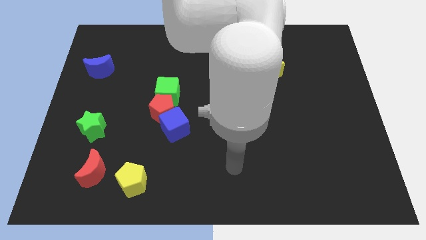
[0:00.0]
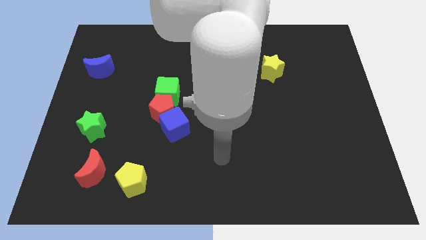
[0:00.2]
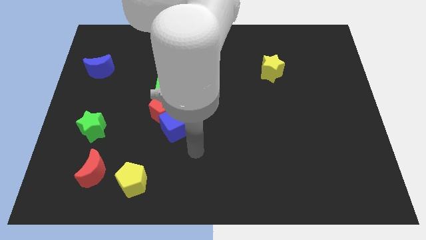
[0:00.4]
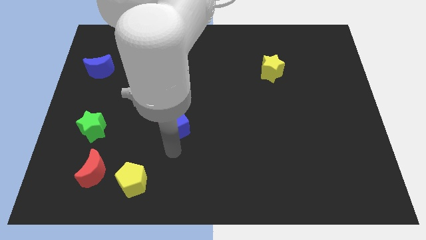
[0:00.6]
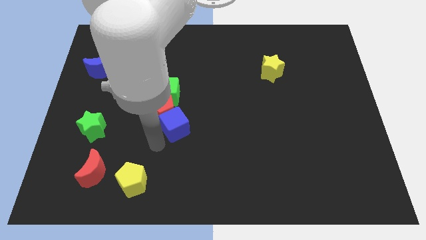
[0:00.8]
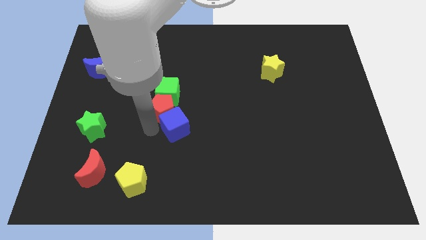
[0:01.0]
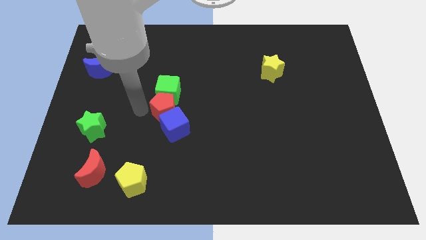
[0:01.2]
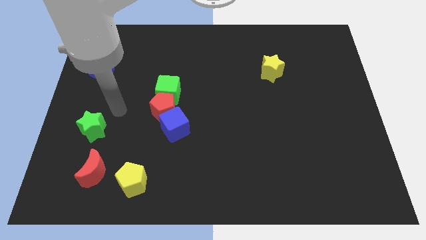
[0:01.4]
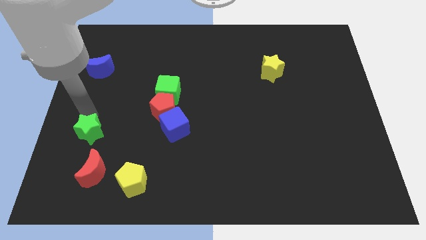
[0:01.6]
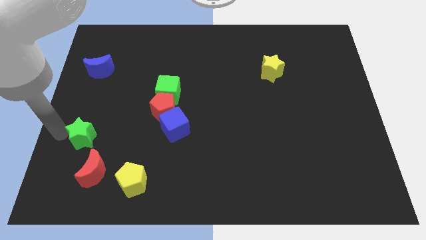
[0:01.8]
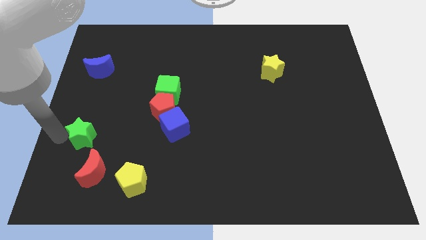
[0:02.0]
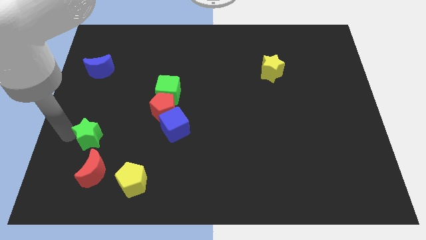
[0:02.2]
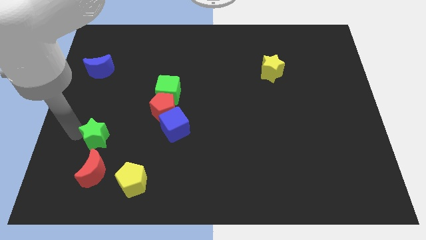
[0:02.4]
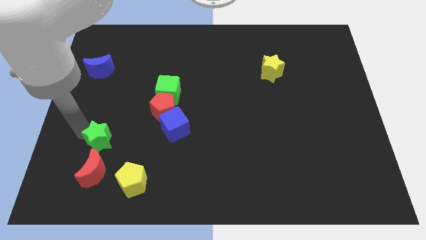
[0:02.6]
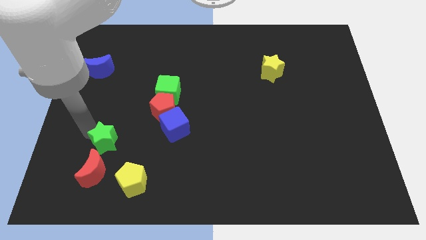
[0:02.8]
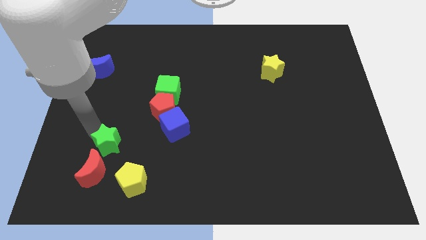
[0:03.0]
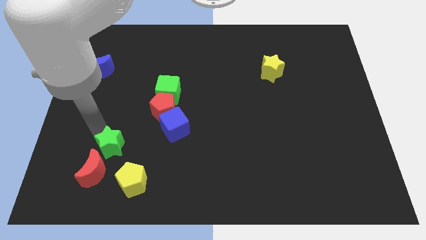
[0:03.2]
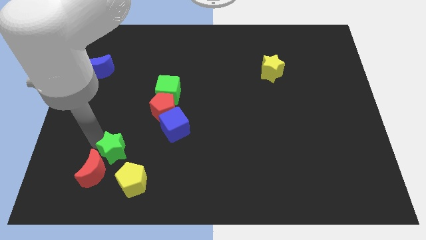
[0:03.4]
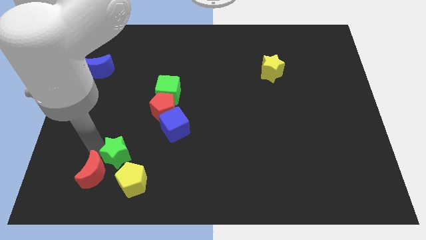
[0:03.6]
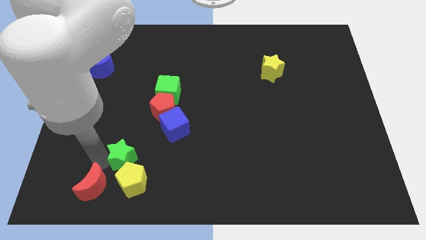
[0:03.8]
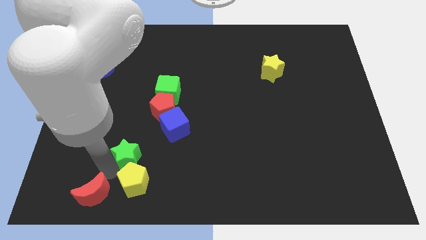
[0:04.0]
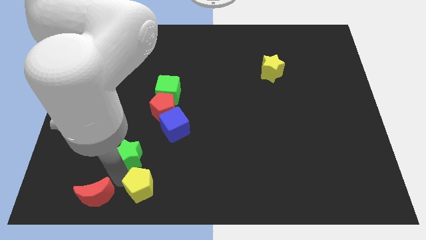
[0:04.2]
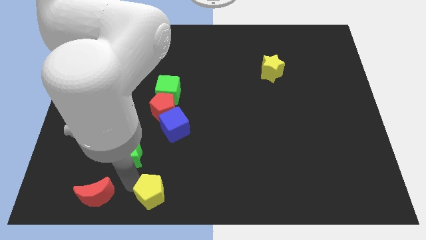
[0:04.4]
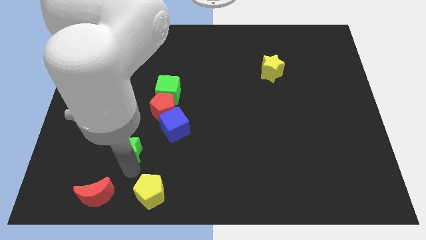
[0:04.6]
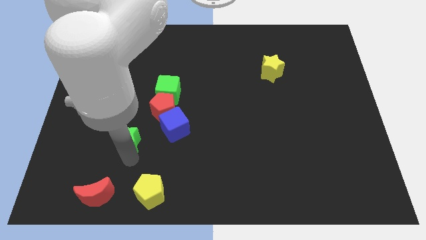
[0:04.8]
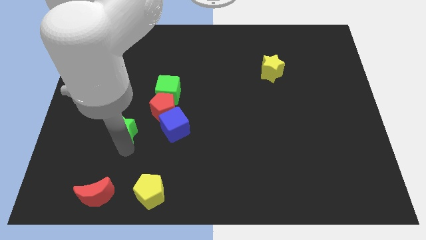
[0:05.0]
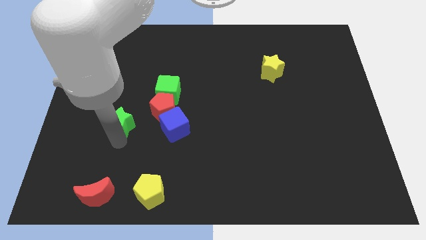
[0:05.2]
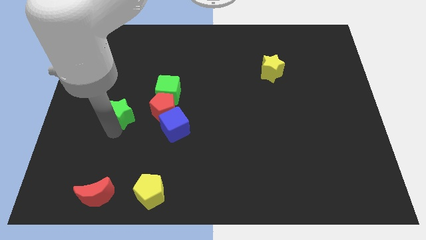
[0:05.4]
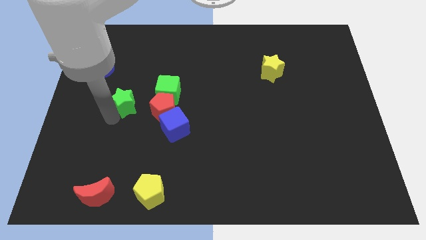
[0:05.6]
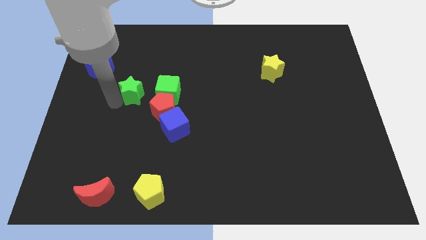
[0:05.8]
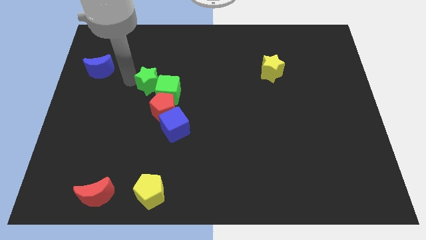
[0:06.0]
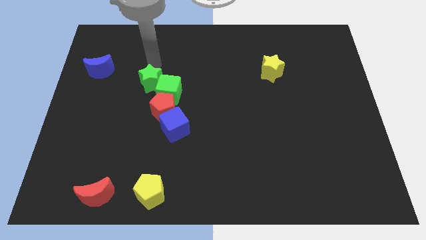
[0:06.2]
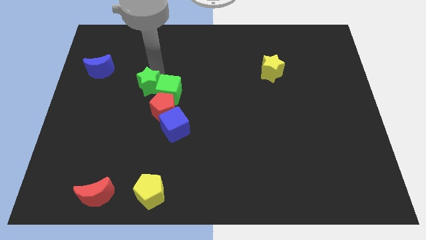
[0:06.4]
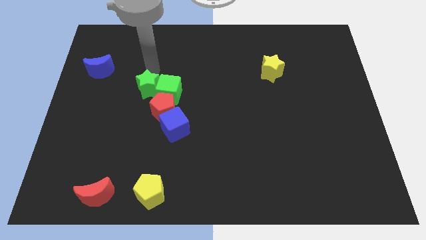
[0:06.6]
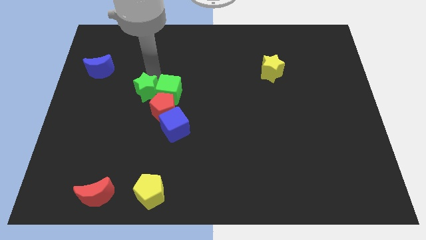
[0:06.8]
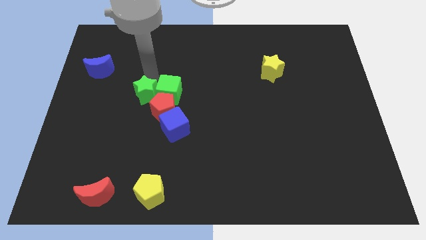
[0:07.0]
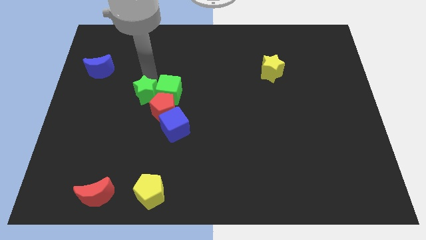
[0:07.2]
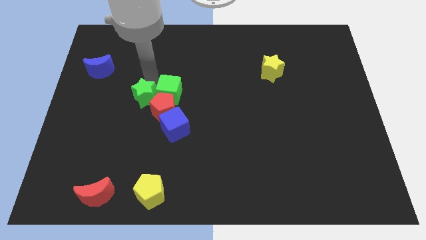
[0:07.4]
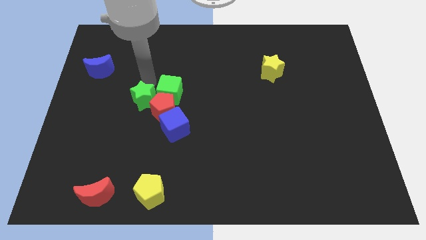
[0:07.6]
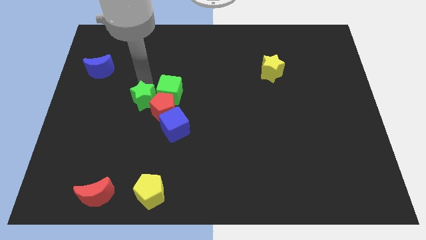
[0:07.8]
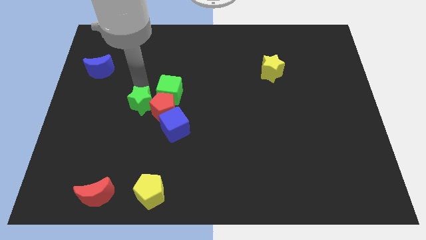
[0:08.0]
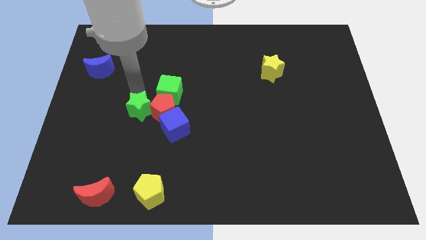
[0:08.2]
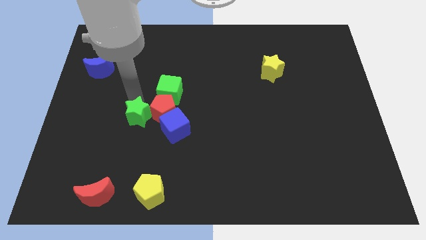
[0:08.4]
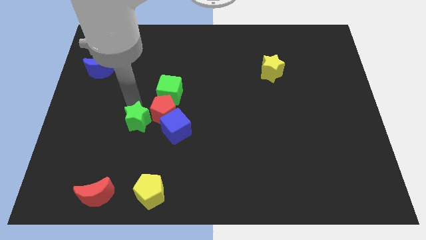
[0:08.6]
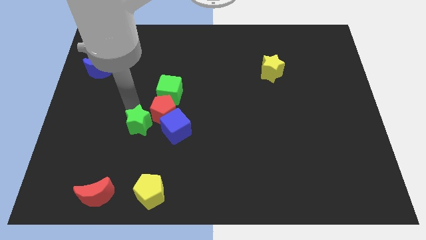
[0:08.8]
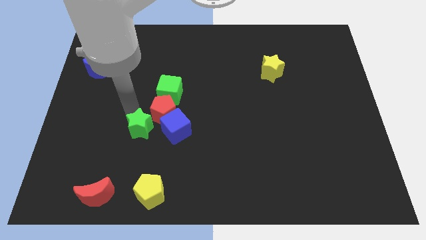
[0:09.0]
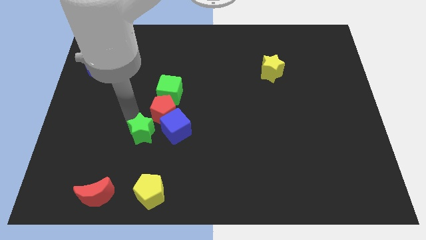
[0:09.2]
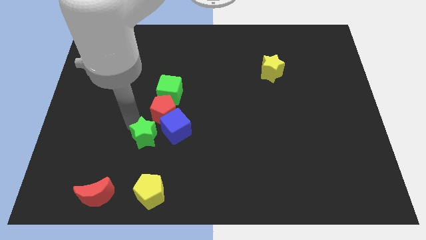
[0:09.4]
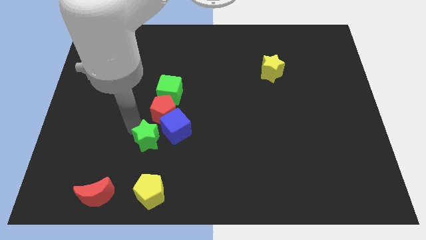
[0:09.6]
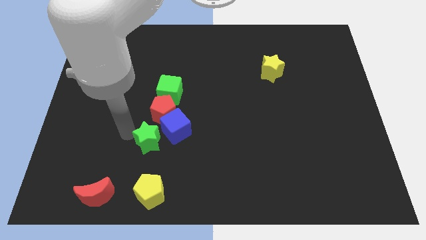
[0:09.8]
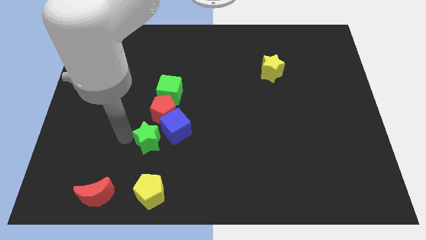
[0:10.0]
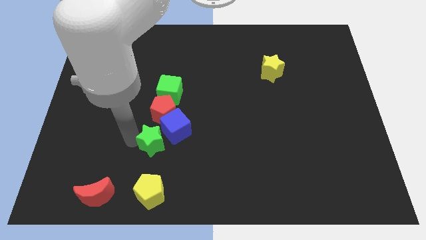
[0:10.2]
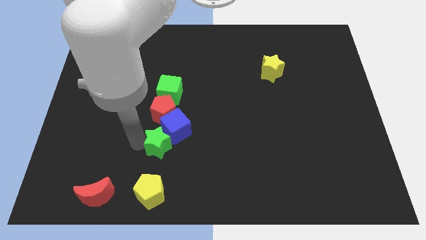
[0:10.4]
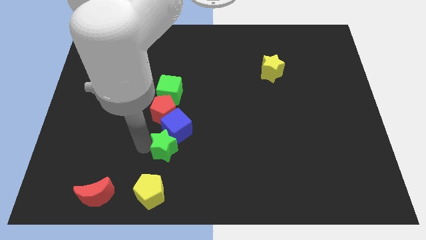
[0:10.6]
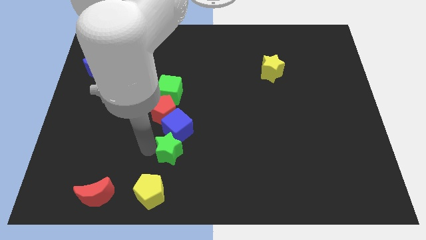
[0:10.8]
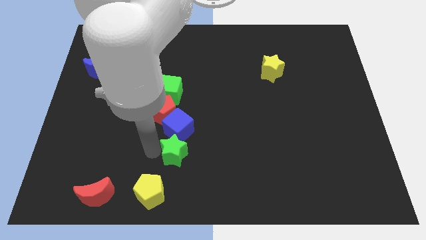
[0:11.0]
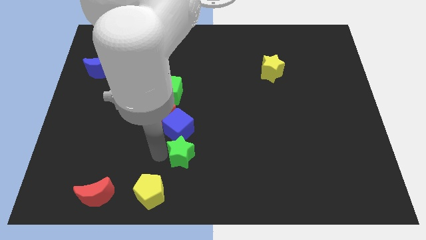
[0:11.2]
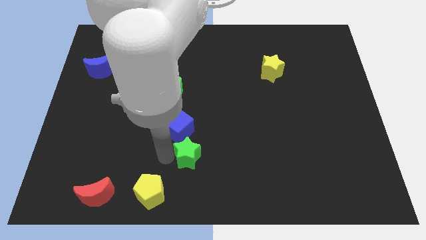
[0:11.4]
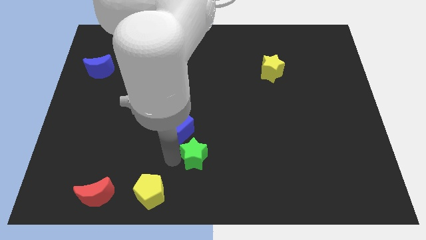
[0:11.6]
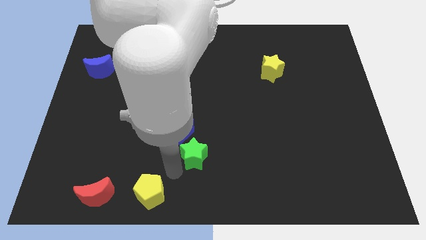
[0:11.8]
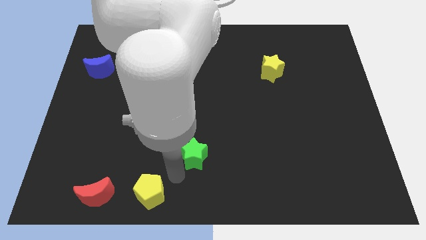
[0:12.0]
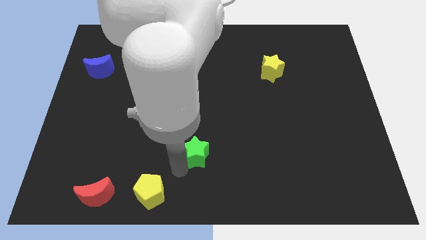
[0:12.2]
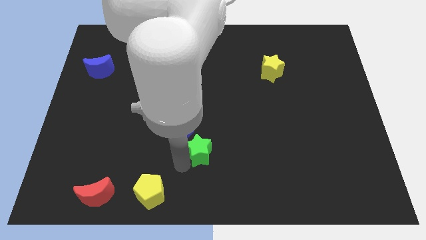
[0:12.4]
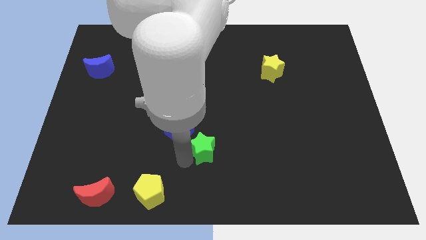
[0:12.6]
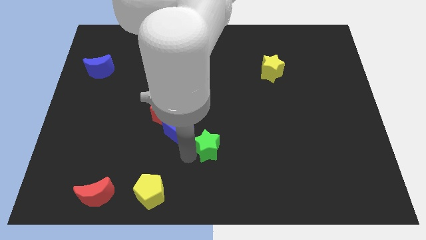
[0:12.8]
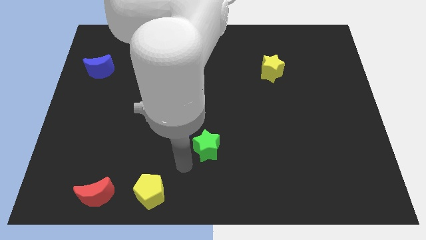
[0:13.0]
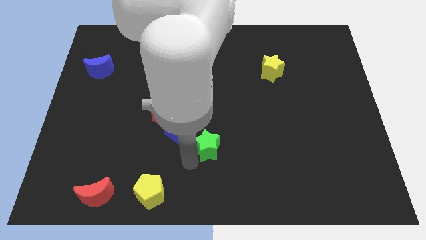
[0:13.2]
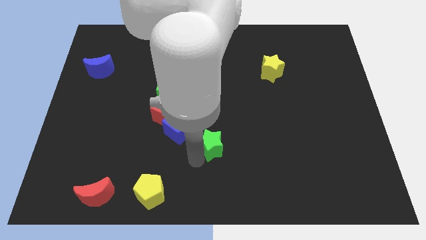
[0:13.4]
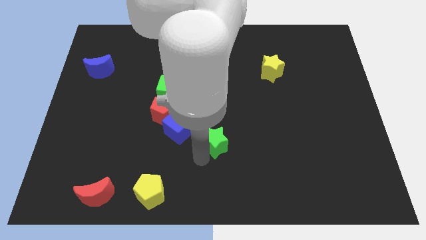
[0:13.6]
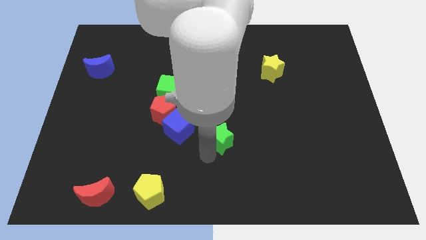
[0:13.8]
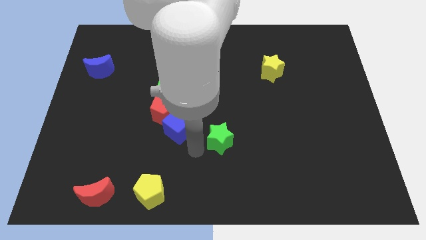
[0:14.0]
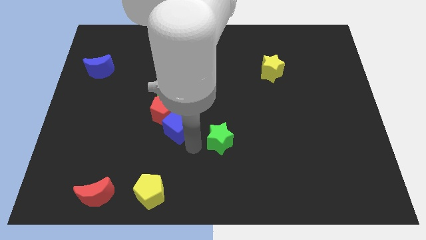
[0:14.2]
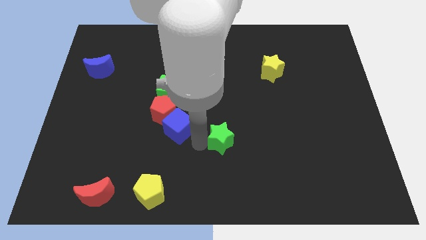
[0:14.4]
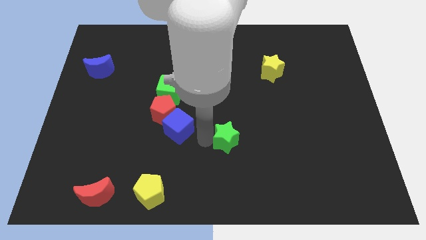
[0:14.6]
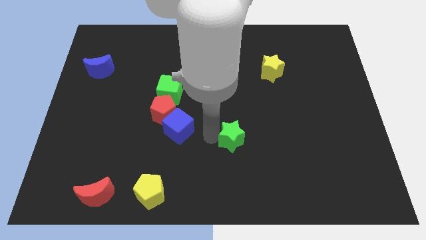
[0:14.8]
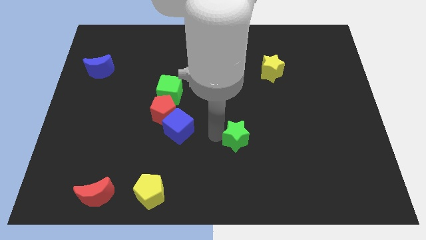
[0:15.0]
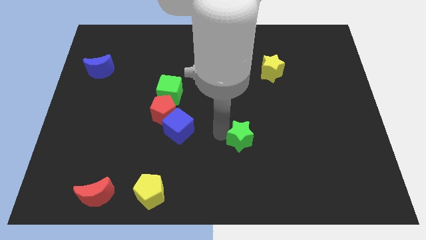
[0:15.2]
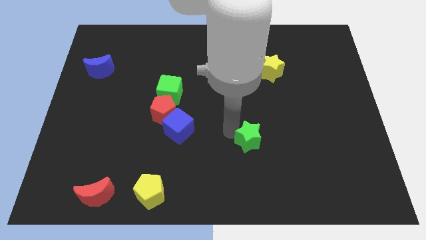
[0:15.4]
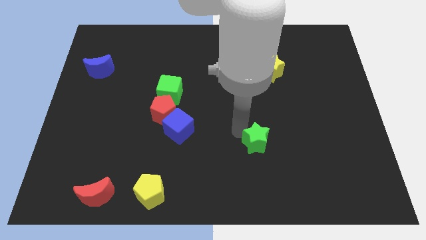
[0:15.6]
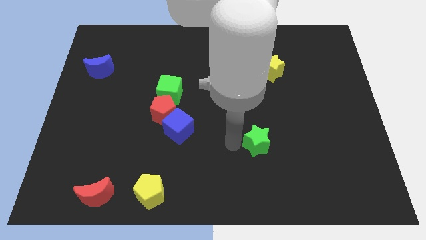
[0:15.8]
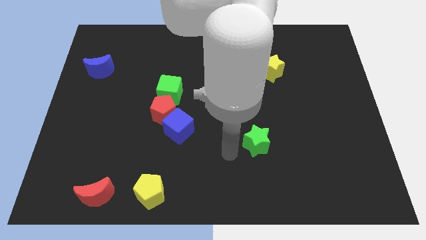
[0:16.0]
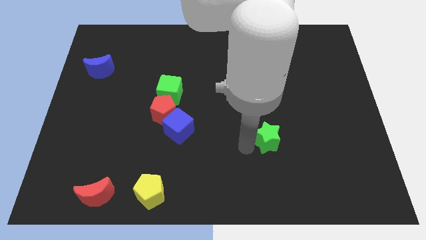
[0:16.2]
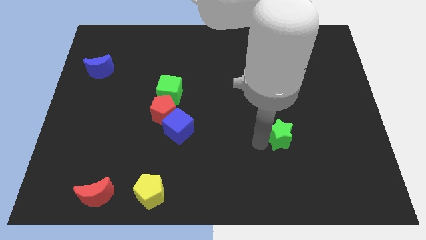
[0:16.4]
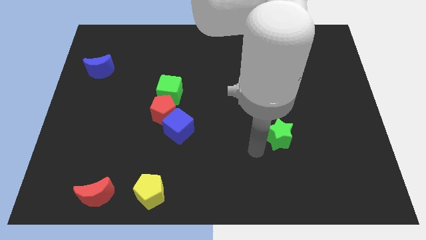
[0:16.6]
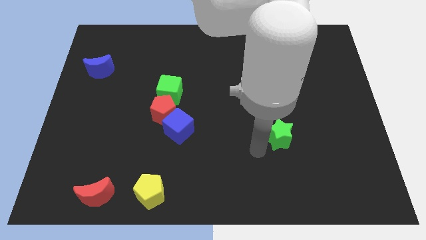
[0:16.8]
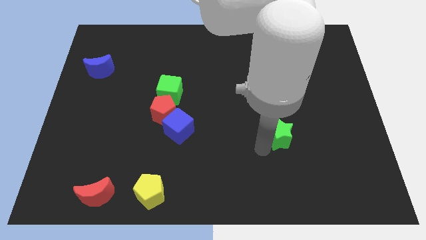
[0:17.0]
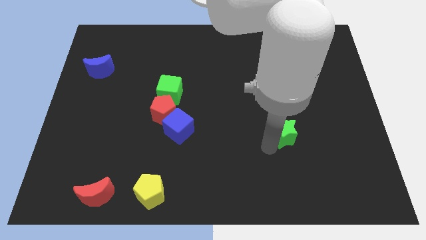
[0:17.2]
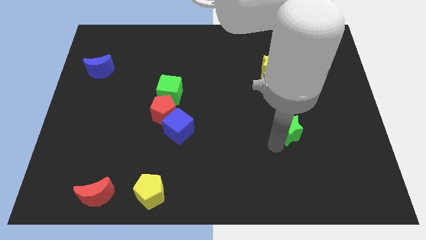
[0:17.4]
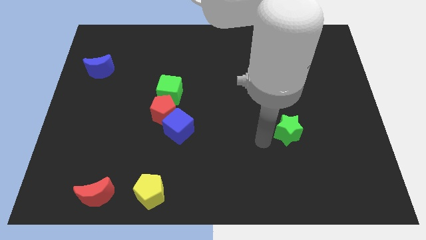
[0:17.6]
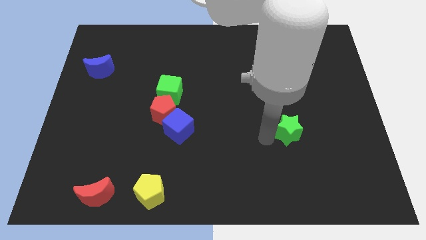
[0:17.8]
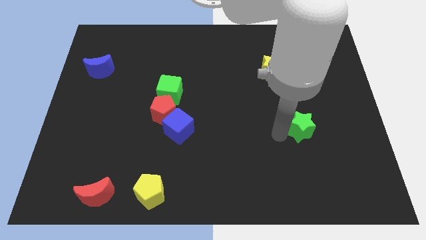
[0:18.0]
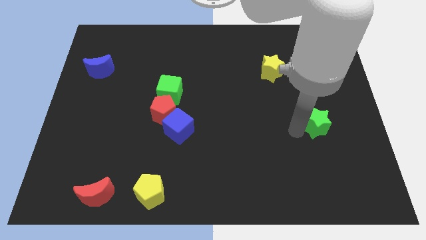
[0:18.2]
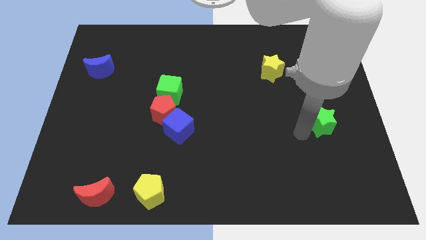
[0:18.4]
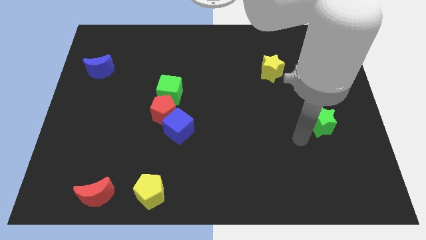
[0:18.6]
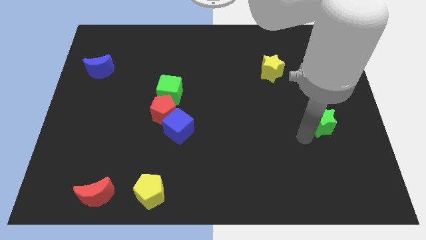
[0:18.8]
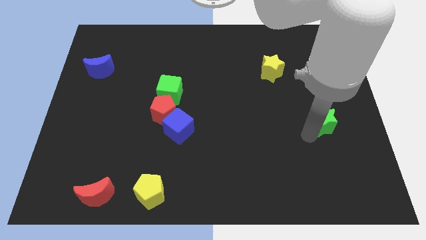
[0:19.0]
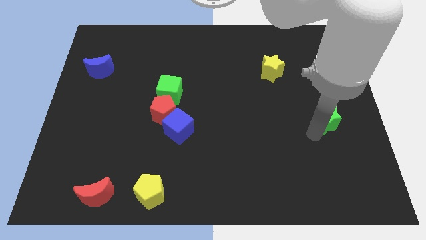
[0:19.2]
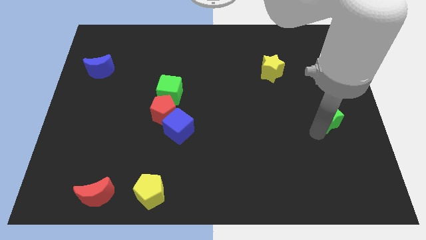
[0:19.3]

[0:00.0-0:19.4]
slide the green star to the right side of the board
